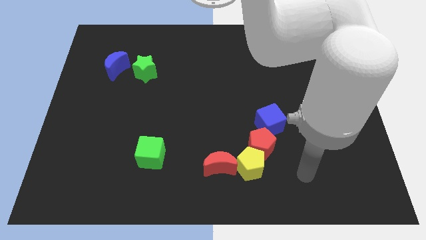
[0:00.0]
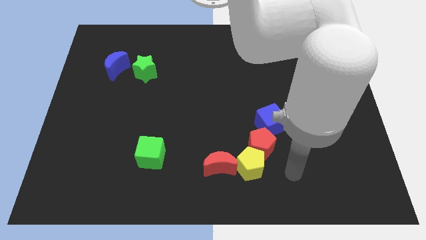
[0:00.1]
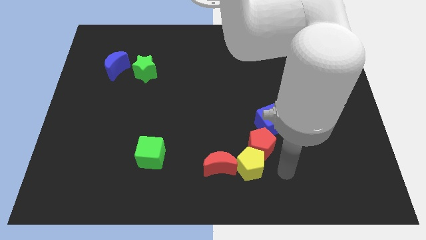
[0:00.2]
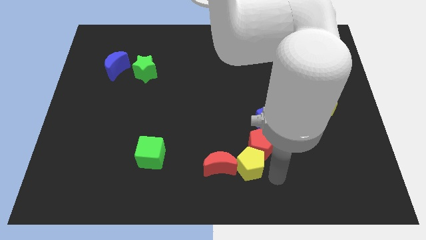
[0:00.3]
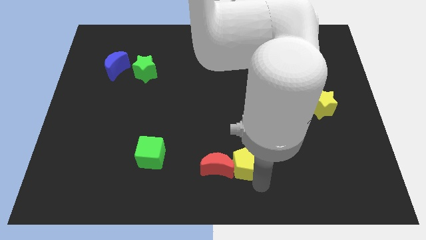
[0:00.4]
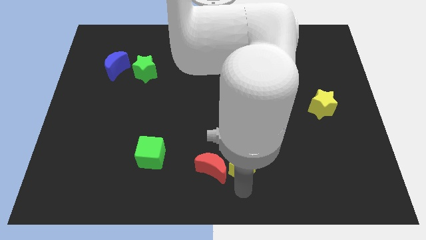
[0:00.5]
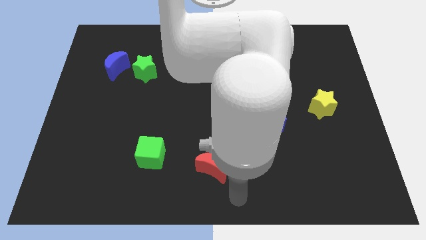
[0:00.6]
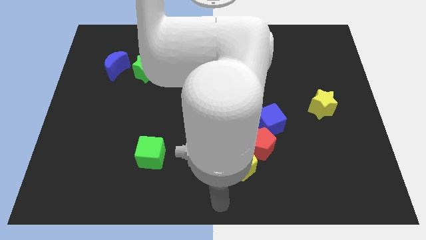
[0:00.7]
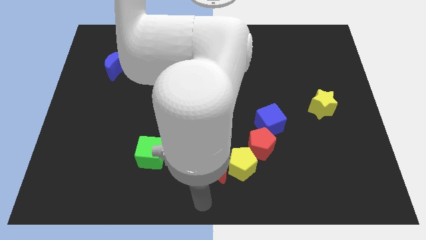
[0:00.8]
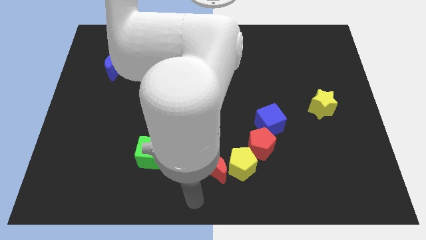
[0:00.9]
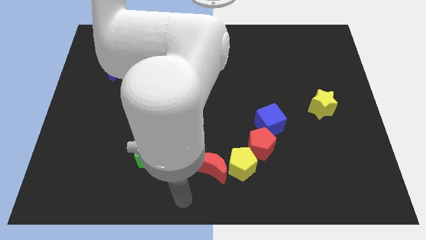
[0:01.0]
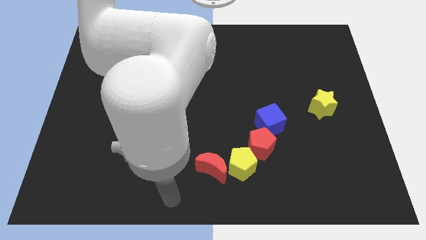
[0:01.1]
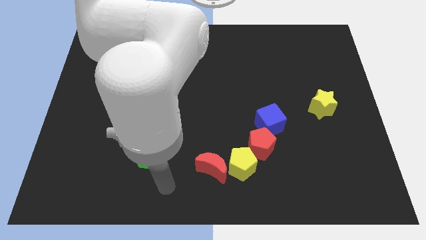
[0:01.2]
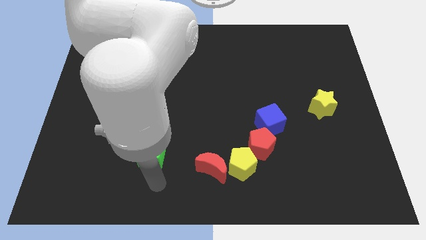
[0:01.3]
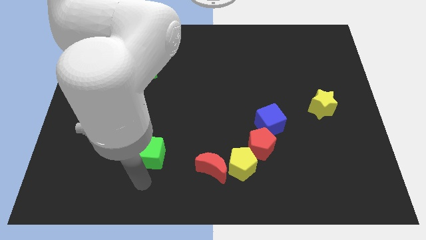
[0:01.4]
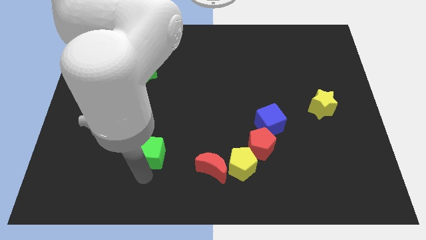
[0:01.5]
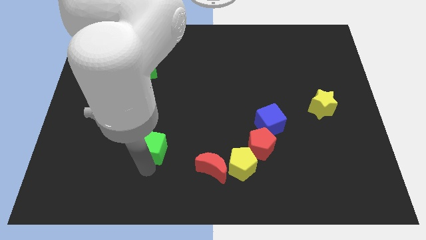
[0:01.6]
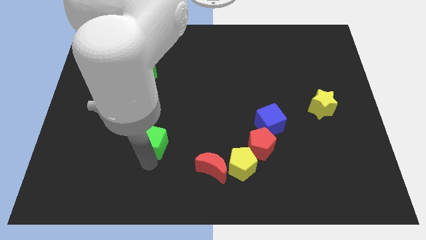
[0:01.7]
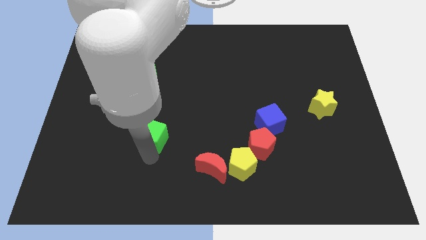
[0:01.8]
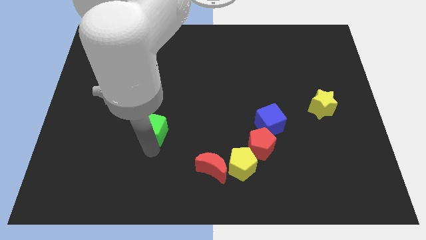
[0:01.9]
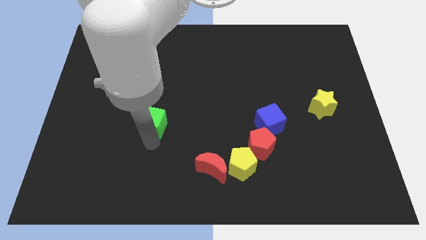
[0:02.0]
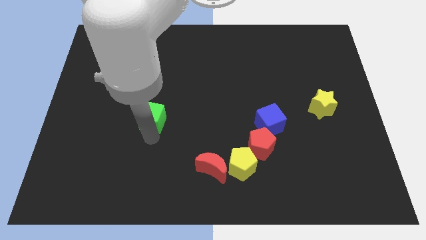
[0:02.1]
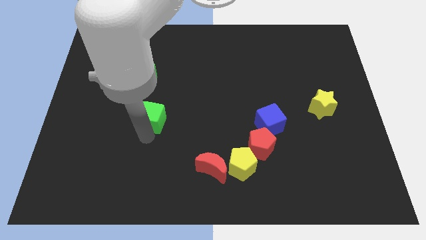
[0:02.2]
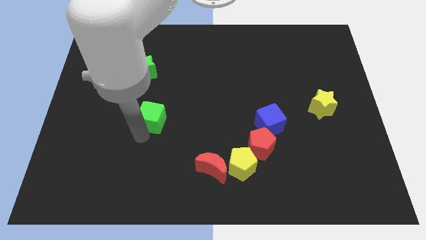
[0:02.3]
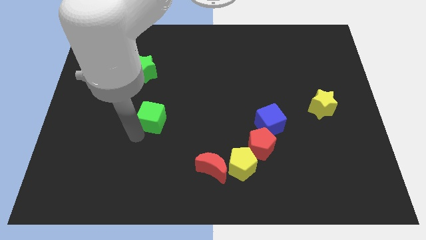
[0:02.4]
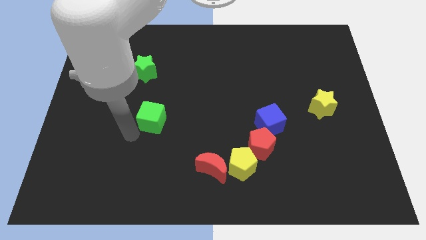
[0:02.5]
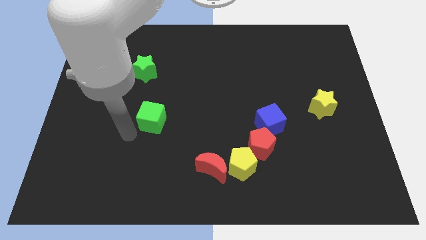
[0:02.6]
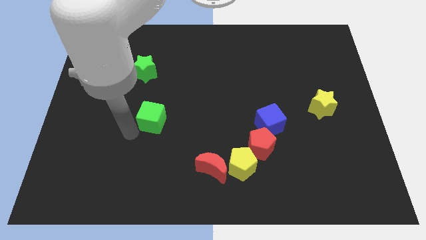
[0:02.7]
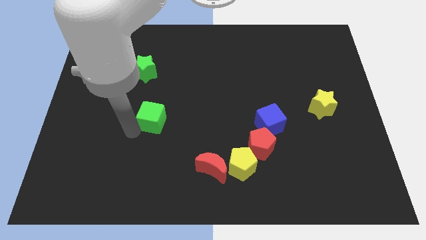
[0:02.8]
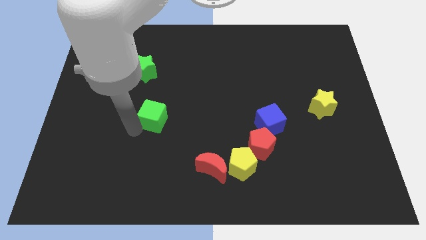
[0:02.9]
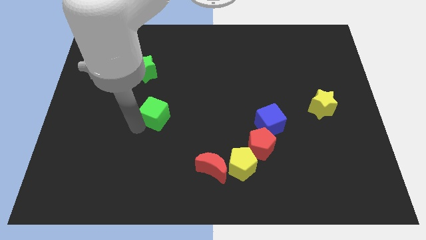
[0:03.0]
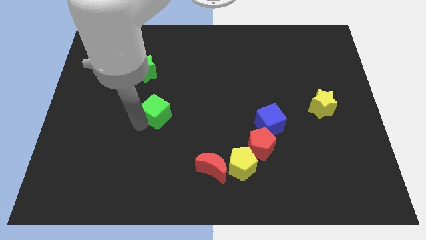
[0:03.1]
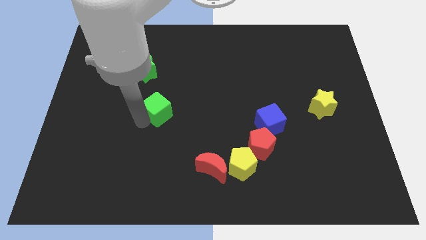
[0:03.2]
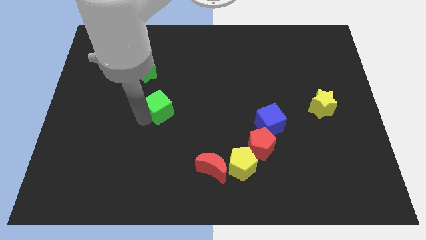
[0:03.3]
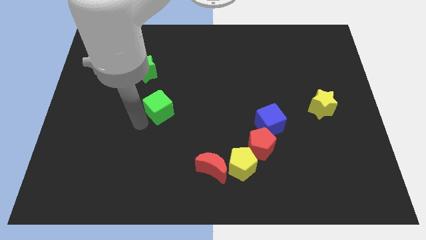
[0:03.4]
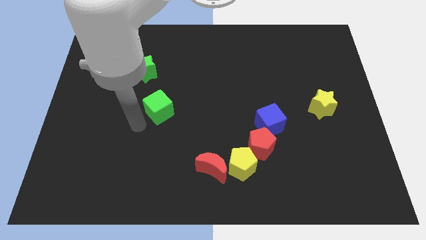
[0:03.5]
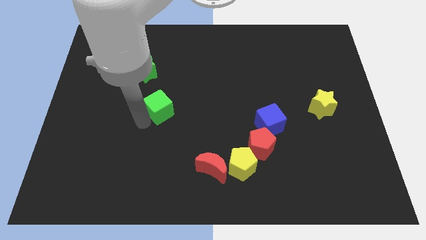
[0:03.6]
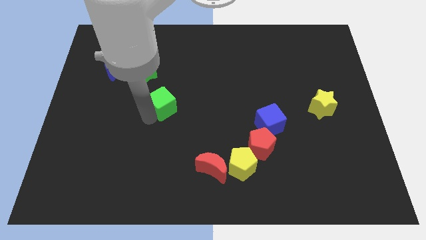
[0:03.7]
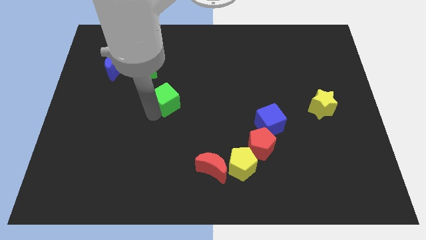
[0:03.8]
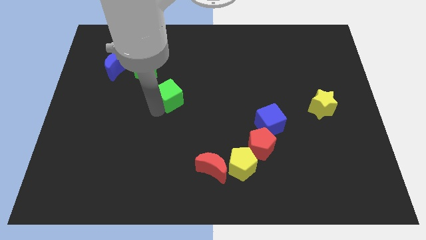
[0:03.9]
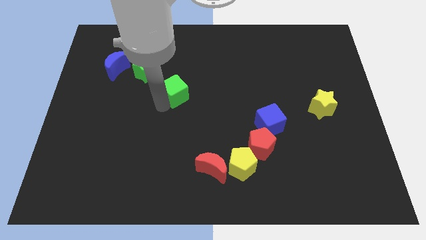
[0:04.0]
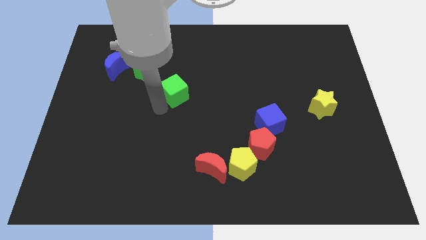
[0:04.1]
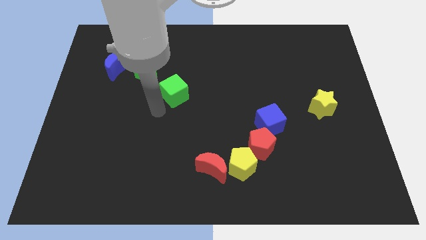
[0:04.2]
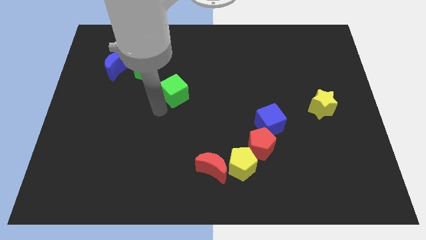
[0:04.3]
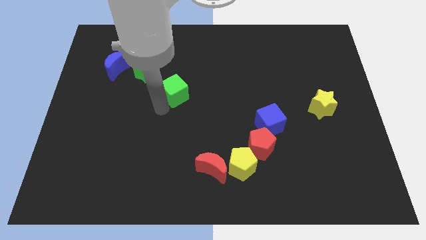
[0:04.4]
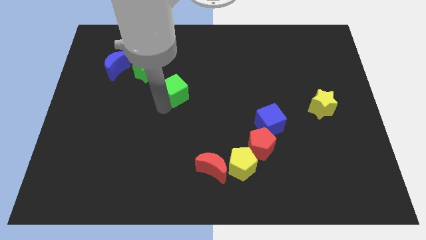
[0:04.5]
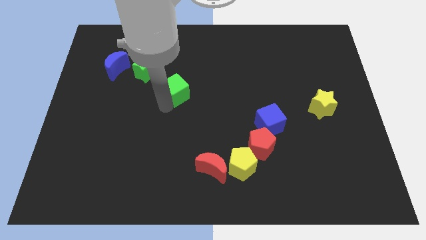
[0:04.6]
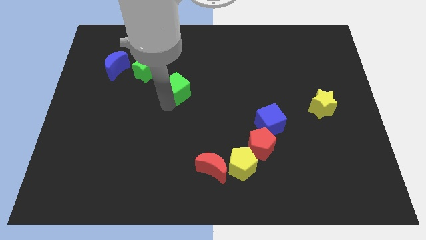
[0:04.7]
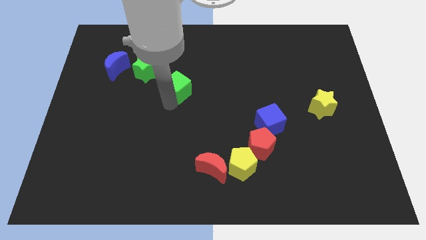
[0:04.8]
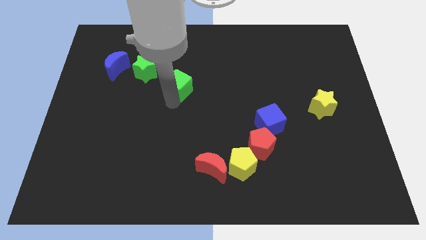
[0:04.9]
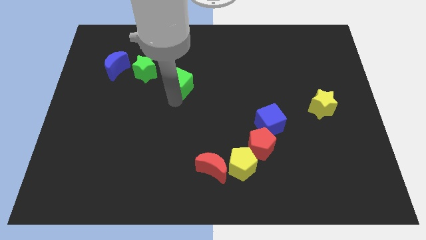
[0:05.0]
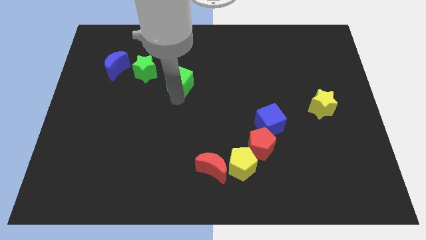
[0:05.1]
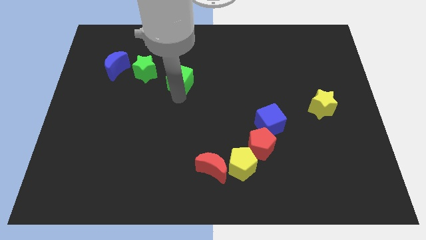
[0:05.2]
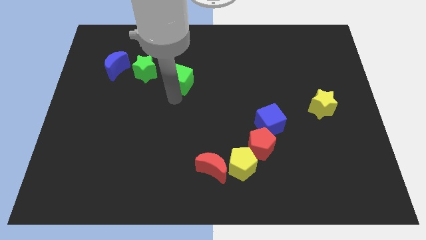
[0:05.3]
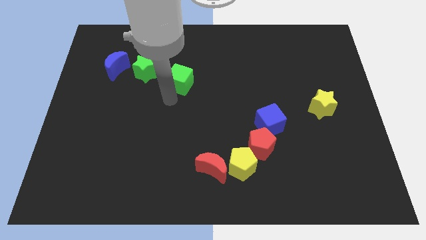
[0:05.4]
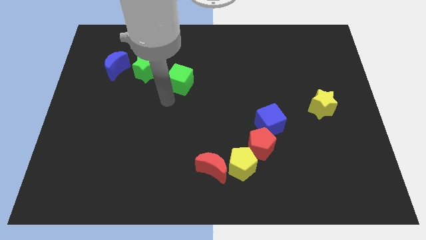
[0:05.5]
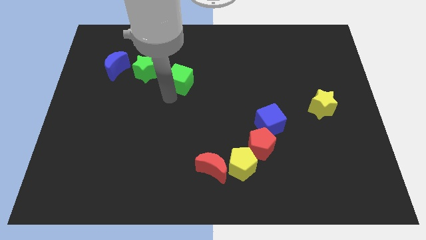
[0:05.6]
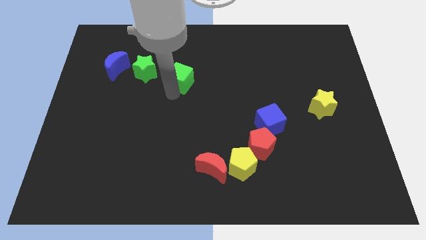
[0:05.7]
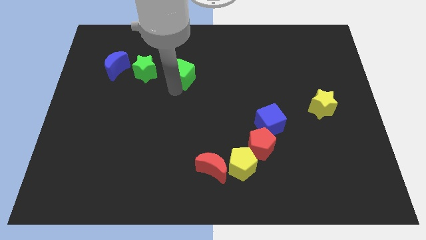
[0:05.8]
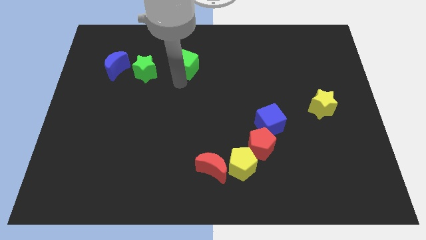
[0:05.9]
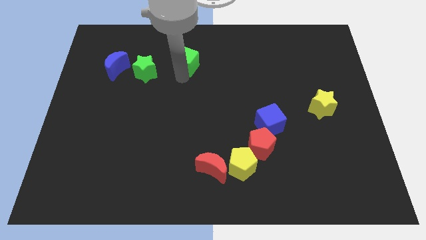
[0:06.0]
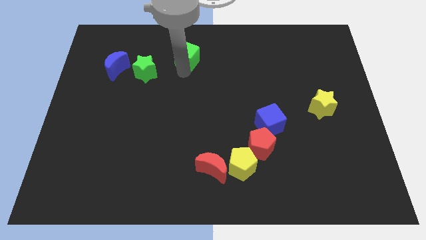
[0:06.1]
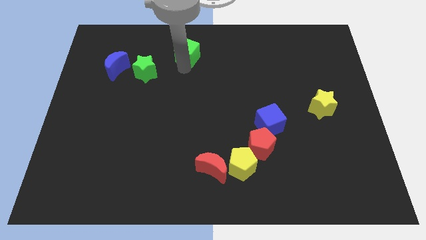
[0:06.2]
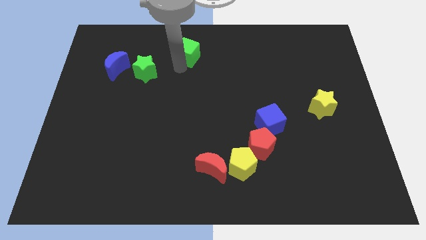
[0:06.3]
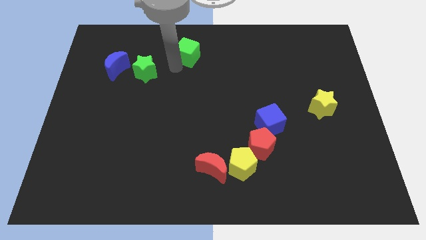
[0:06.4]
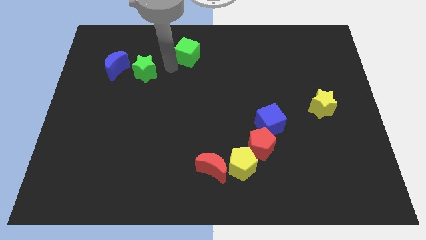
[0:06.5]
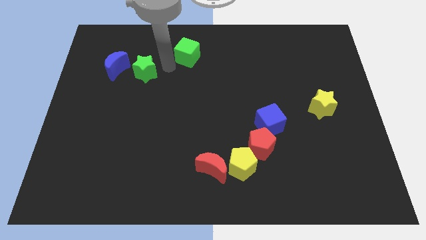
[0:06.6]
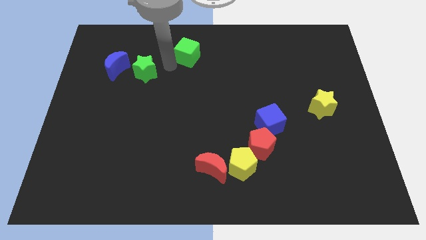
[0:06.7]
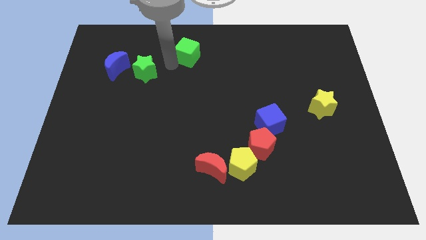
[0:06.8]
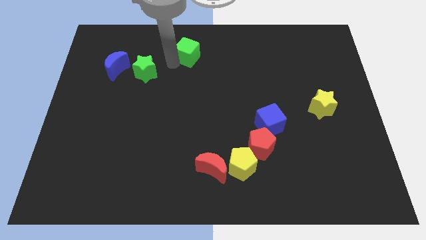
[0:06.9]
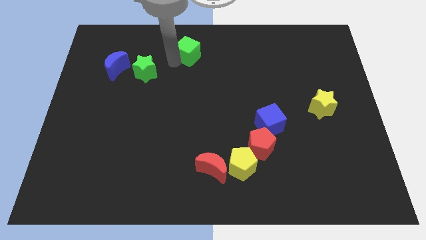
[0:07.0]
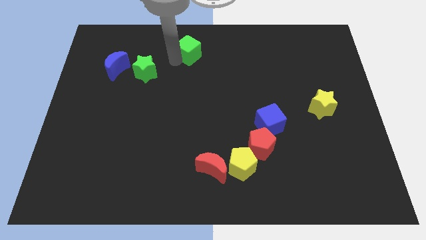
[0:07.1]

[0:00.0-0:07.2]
move the green cube to the towards your base
